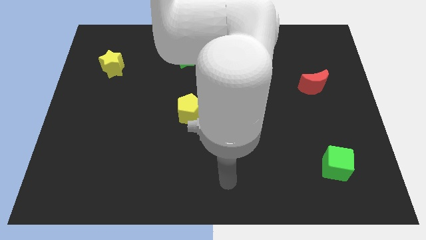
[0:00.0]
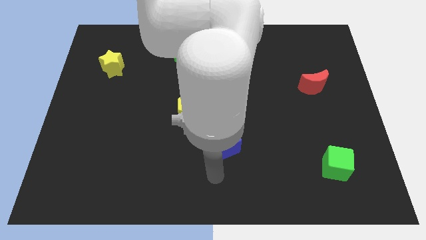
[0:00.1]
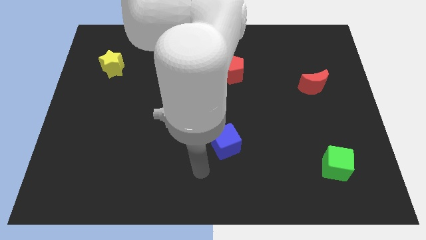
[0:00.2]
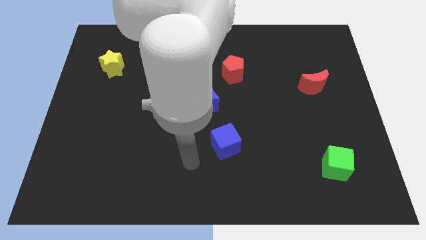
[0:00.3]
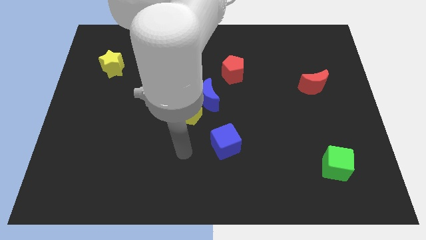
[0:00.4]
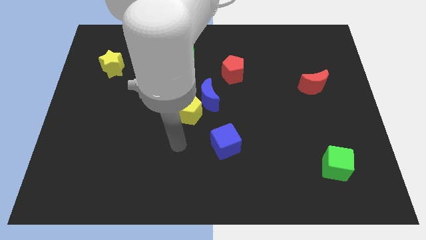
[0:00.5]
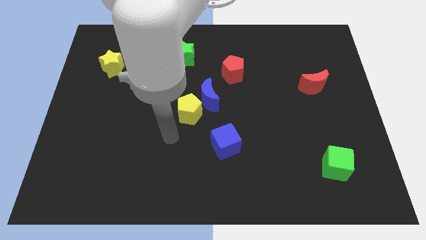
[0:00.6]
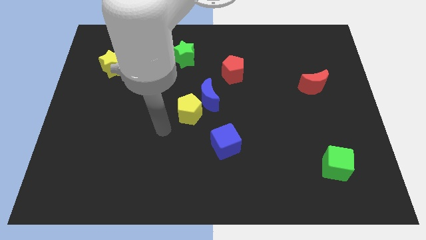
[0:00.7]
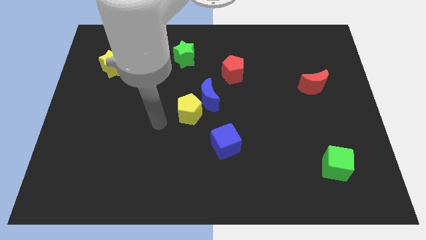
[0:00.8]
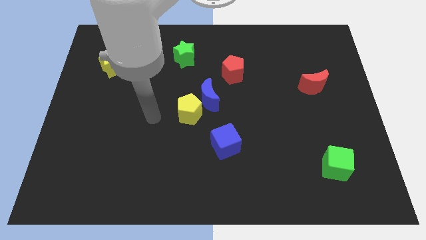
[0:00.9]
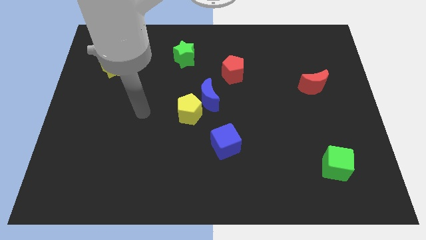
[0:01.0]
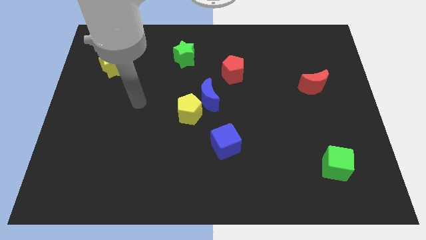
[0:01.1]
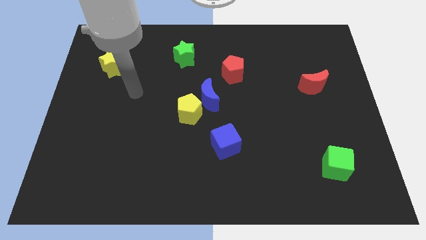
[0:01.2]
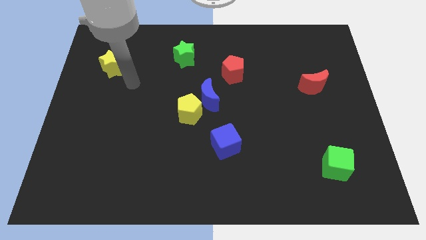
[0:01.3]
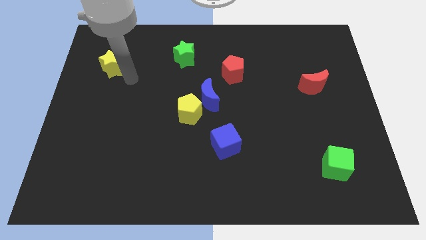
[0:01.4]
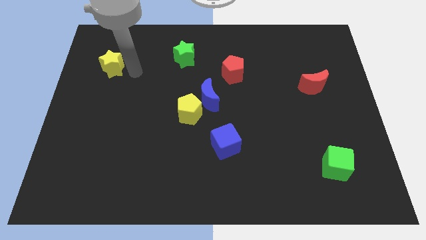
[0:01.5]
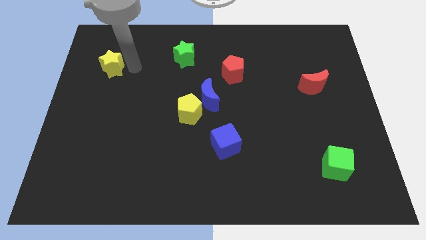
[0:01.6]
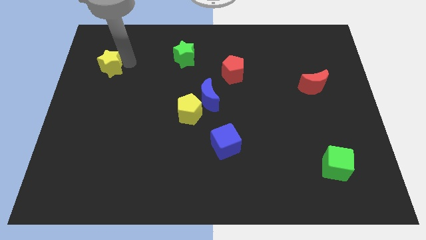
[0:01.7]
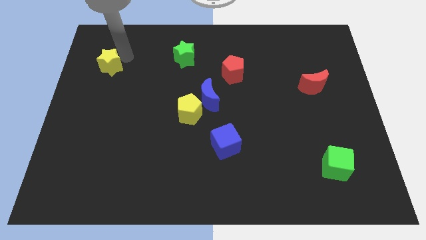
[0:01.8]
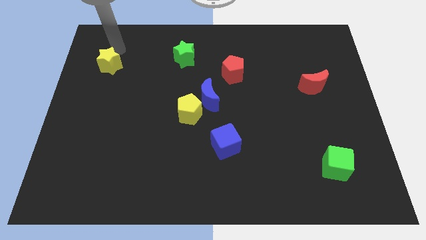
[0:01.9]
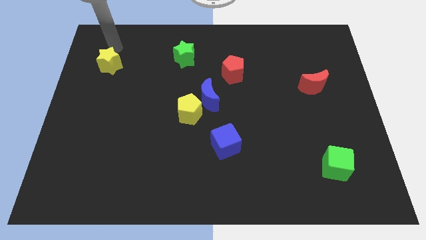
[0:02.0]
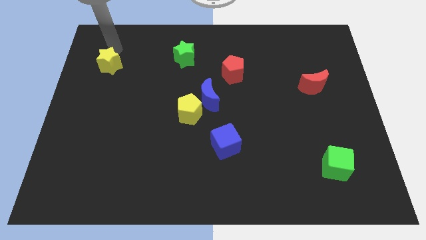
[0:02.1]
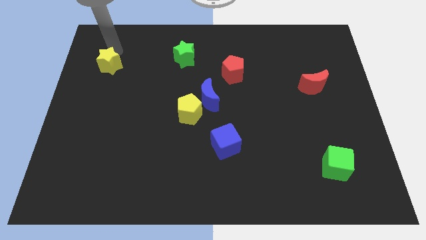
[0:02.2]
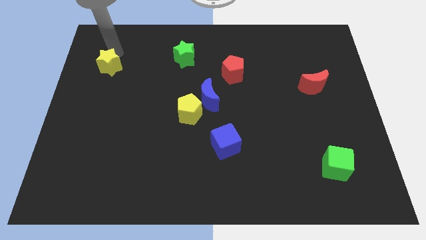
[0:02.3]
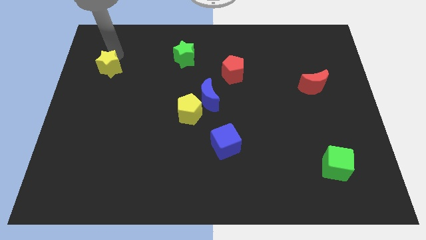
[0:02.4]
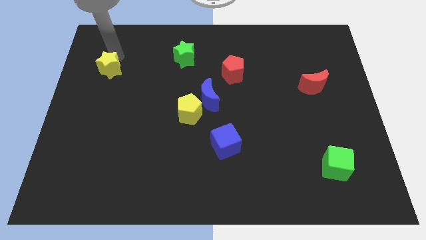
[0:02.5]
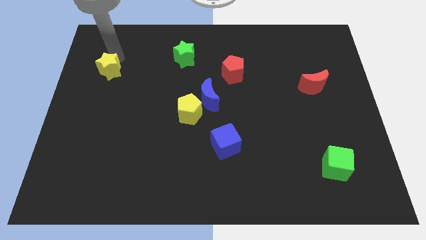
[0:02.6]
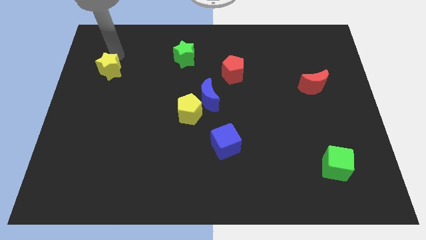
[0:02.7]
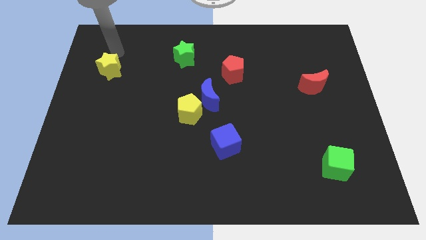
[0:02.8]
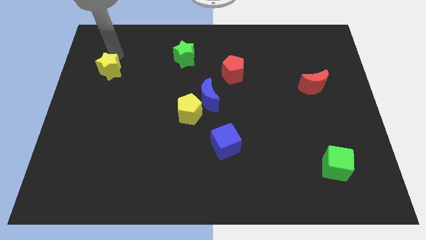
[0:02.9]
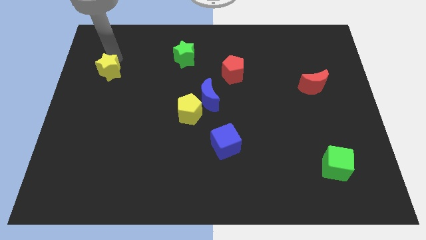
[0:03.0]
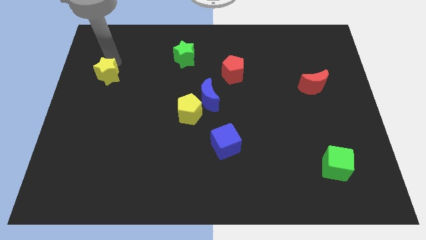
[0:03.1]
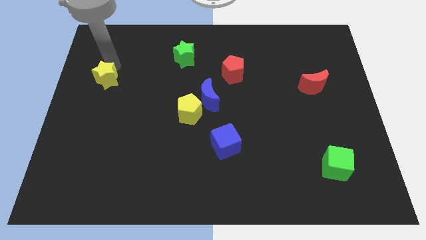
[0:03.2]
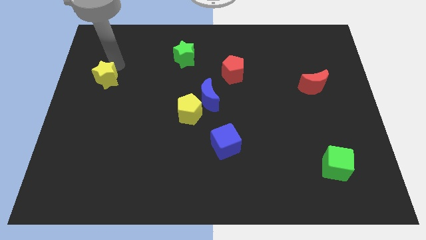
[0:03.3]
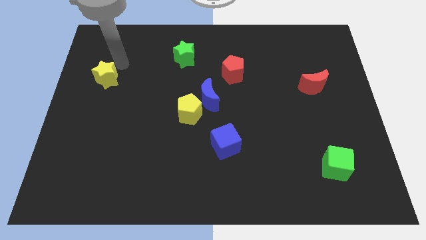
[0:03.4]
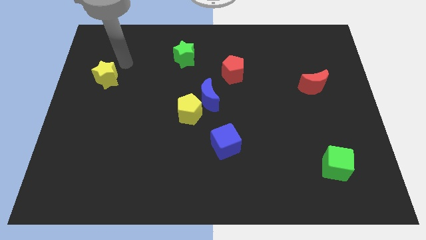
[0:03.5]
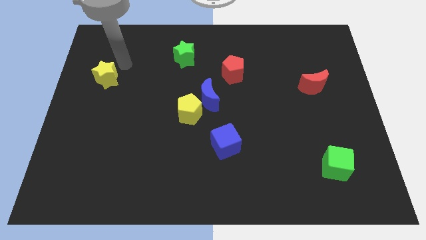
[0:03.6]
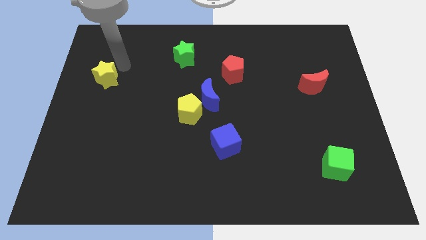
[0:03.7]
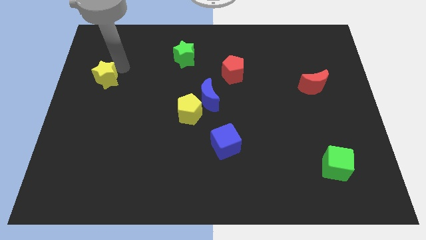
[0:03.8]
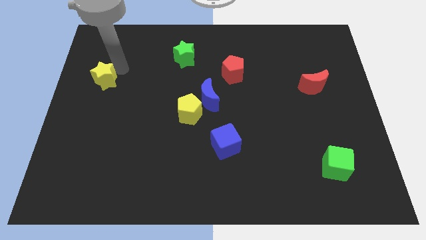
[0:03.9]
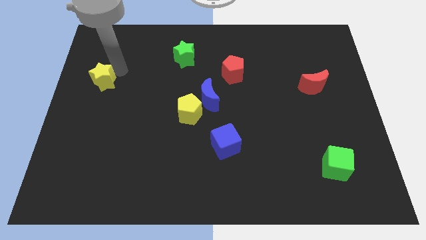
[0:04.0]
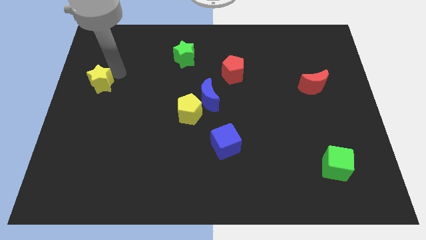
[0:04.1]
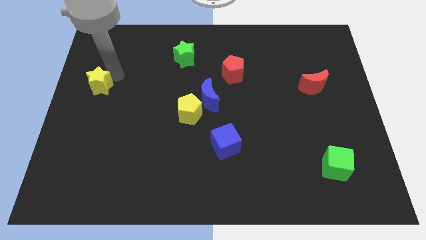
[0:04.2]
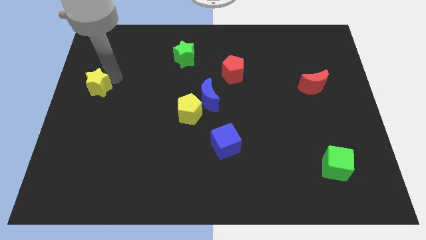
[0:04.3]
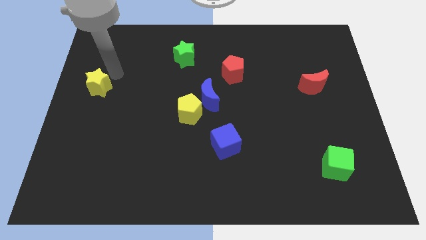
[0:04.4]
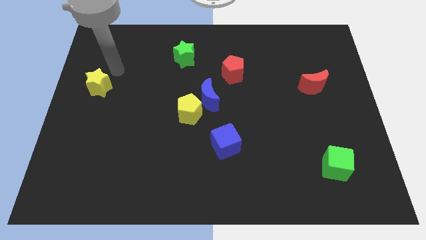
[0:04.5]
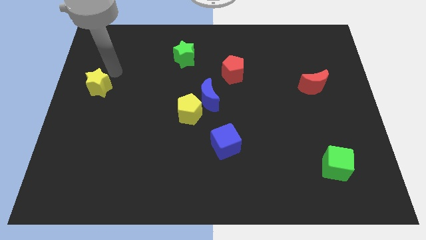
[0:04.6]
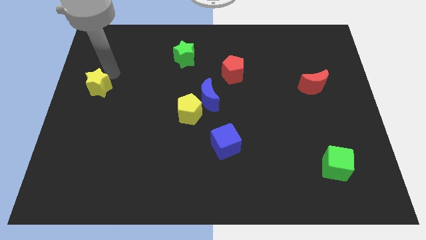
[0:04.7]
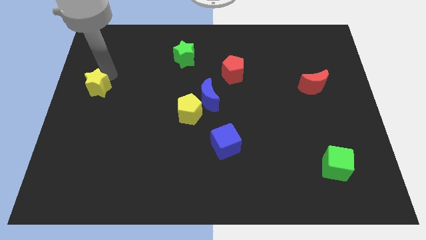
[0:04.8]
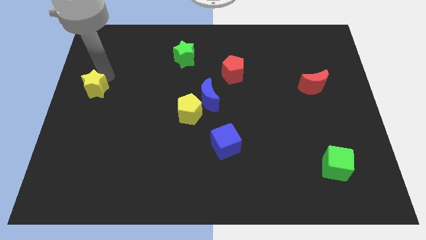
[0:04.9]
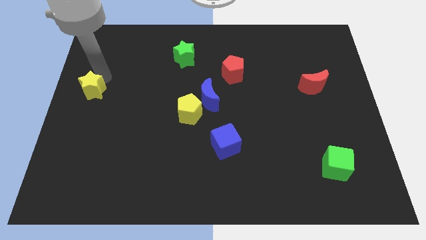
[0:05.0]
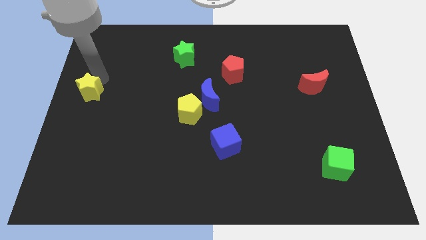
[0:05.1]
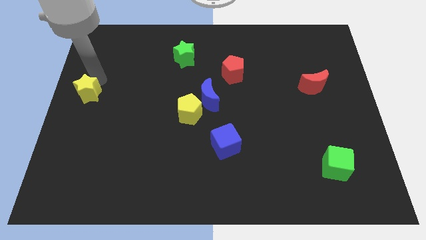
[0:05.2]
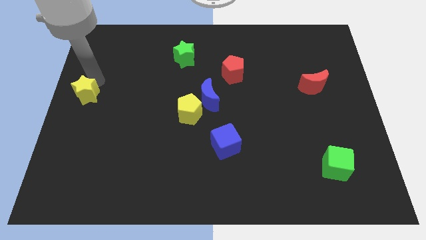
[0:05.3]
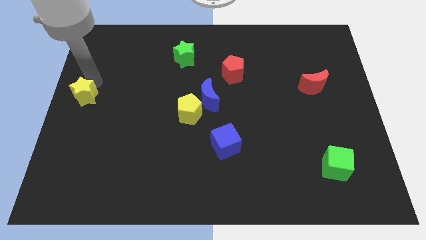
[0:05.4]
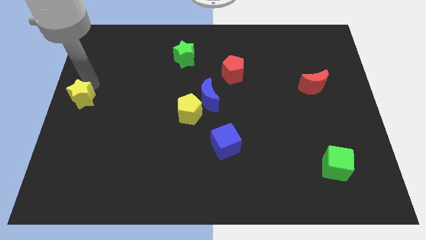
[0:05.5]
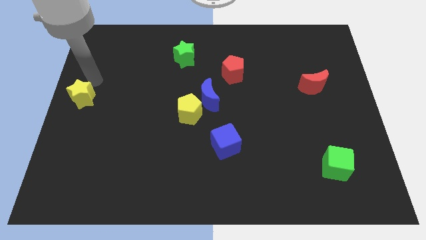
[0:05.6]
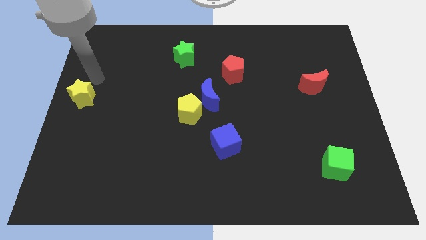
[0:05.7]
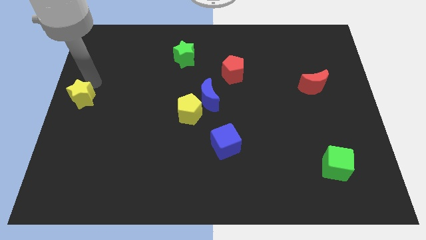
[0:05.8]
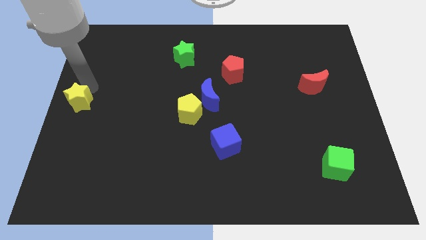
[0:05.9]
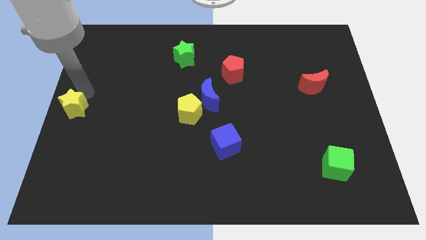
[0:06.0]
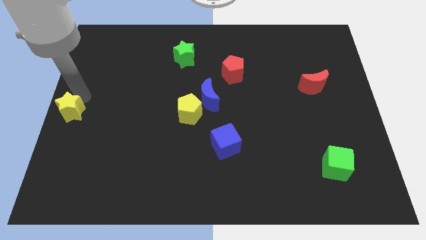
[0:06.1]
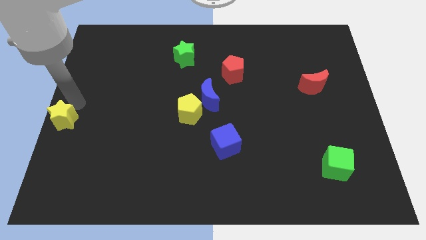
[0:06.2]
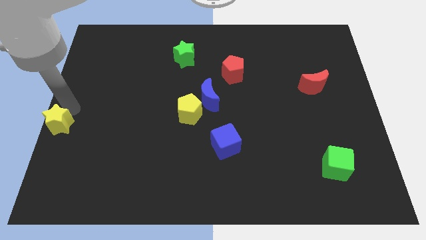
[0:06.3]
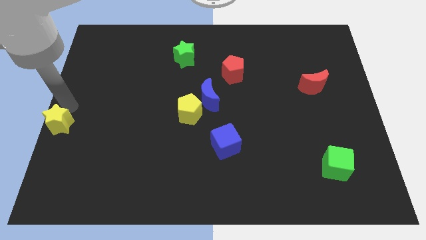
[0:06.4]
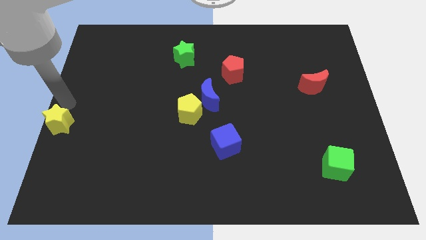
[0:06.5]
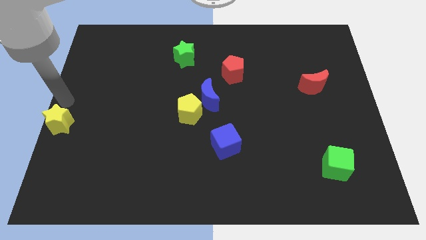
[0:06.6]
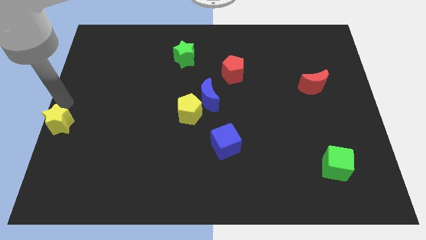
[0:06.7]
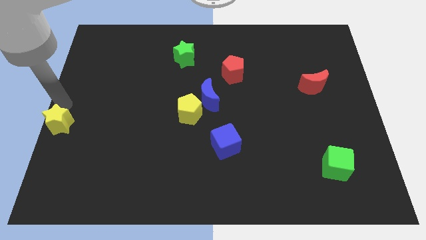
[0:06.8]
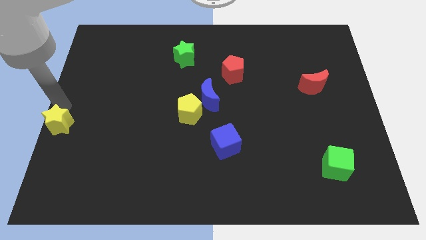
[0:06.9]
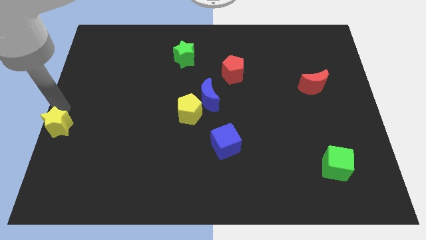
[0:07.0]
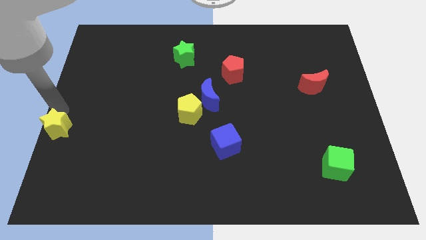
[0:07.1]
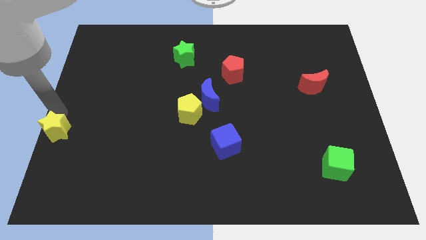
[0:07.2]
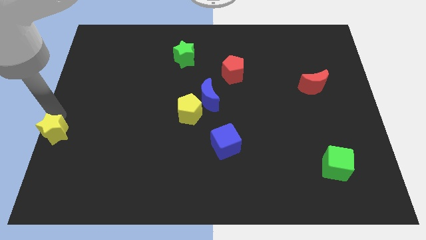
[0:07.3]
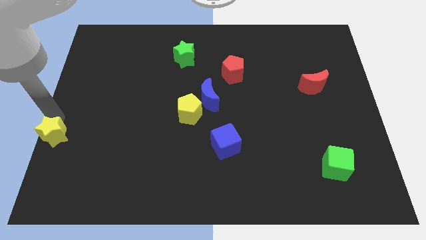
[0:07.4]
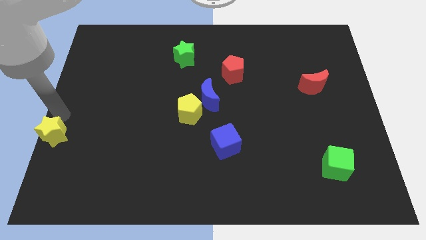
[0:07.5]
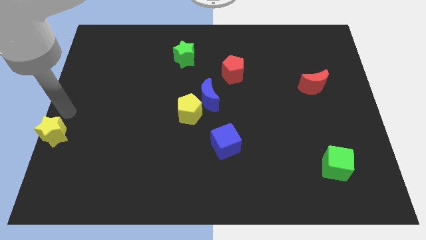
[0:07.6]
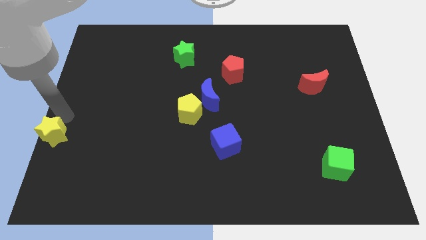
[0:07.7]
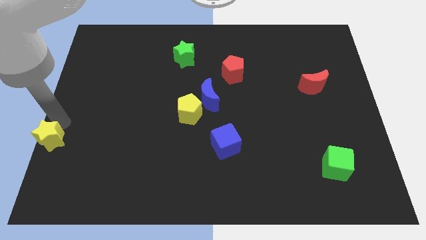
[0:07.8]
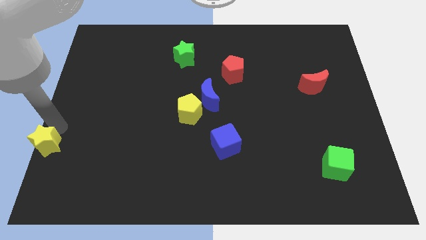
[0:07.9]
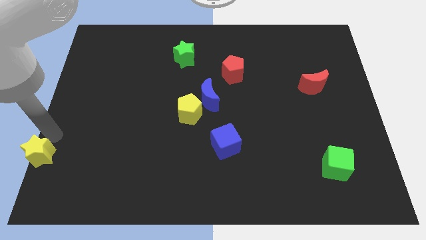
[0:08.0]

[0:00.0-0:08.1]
put the yellow star to the bottom left of the board
